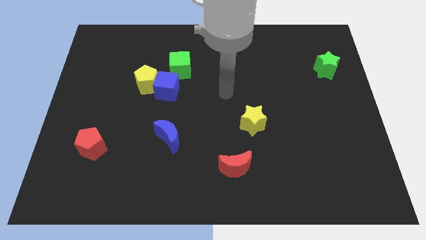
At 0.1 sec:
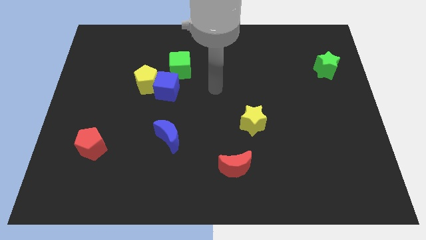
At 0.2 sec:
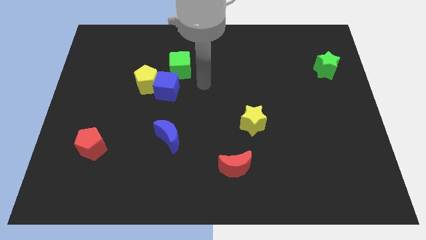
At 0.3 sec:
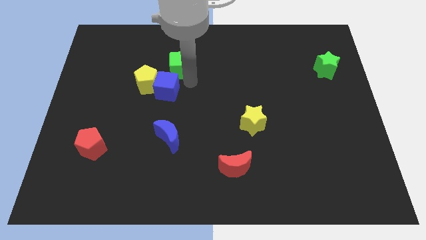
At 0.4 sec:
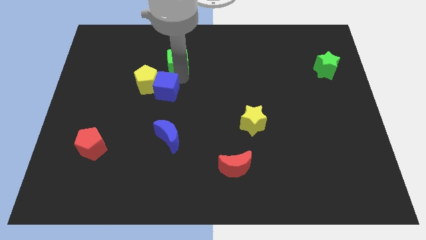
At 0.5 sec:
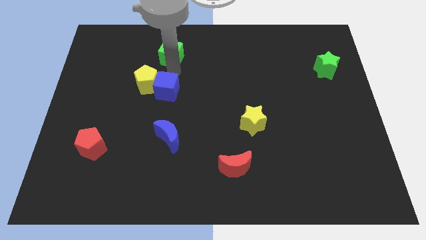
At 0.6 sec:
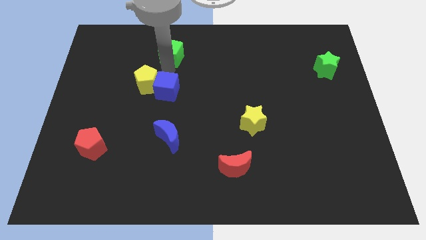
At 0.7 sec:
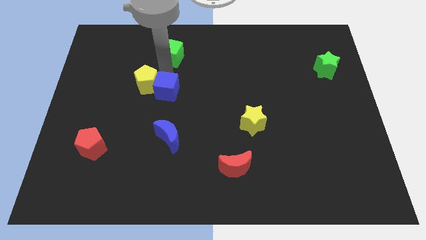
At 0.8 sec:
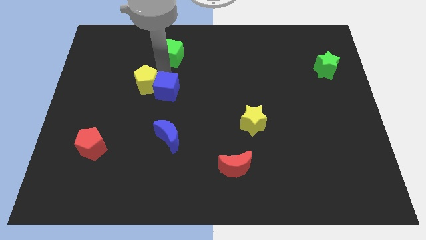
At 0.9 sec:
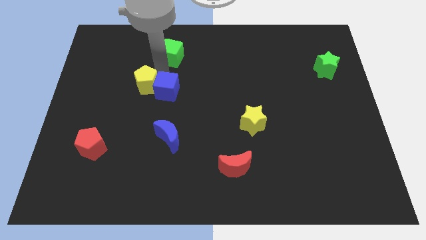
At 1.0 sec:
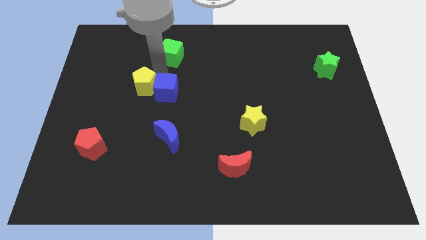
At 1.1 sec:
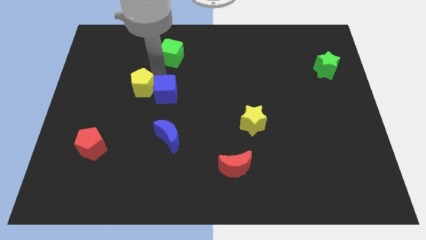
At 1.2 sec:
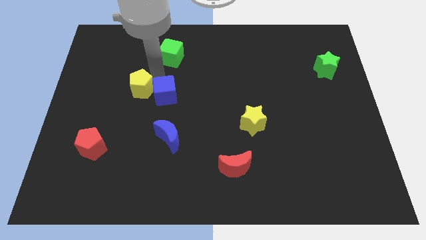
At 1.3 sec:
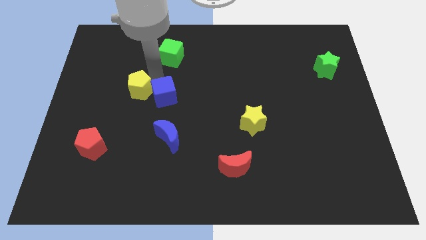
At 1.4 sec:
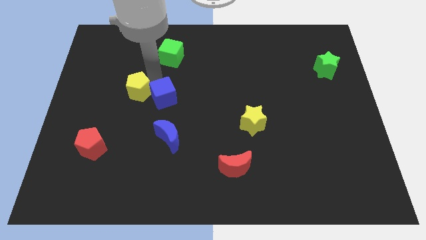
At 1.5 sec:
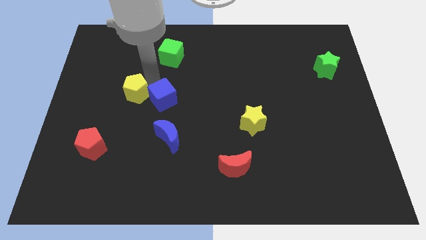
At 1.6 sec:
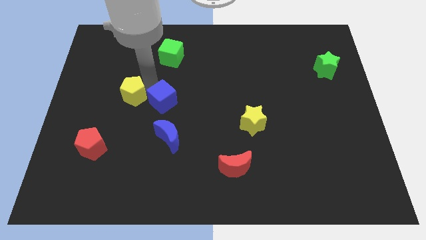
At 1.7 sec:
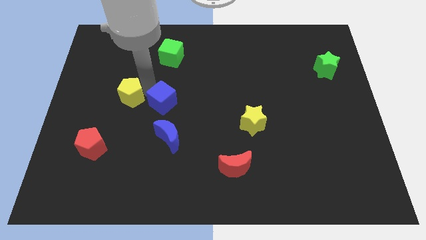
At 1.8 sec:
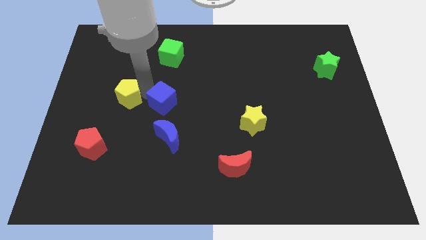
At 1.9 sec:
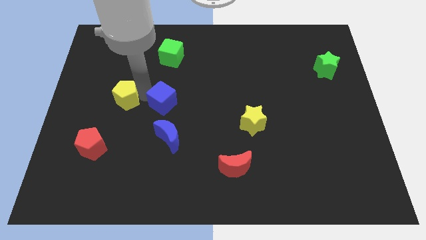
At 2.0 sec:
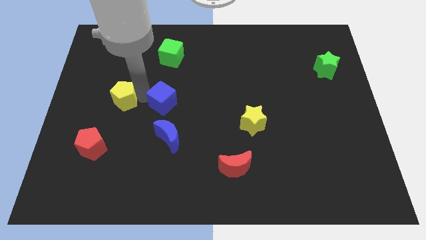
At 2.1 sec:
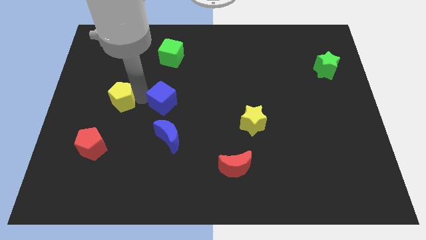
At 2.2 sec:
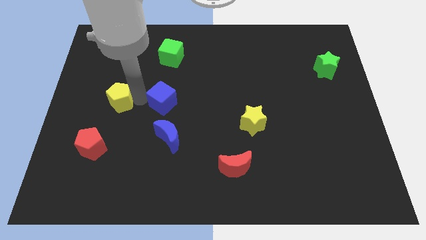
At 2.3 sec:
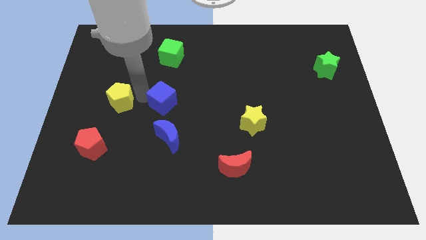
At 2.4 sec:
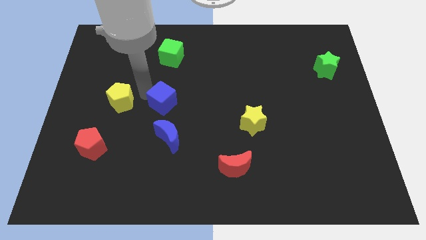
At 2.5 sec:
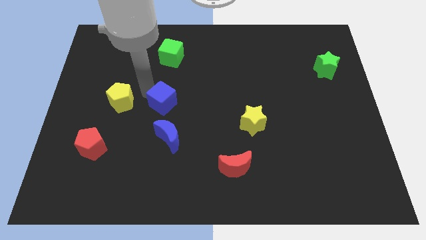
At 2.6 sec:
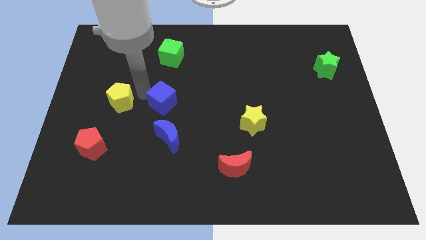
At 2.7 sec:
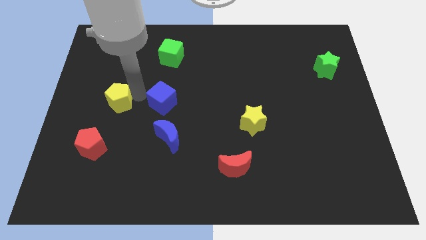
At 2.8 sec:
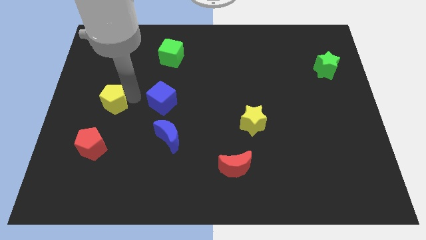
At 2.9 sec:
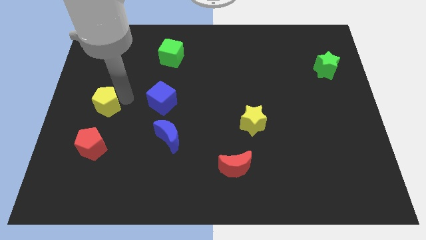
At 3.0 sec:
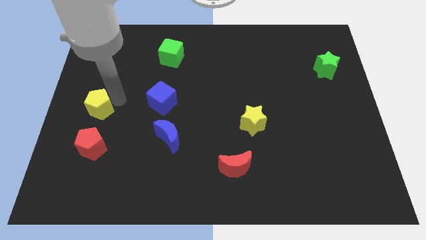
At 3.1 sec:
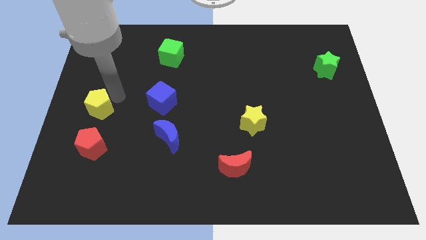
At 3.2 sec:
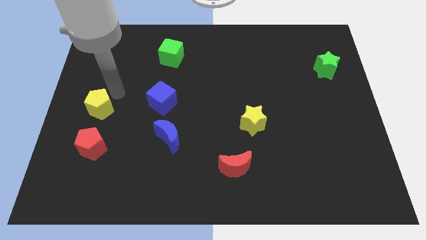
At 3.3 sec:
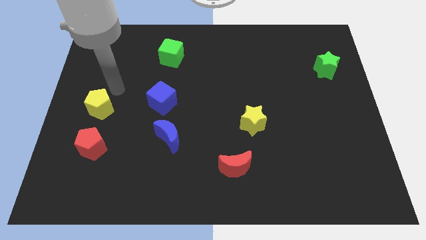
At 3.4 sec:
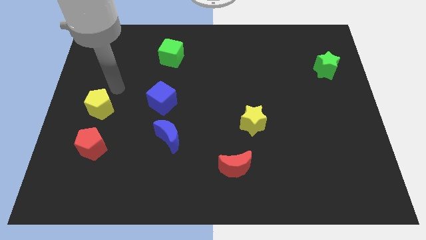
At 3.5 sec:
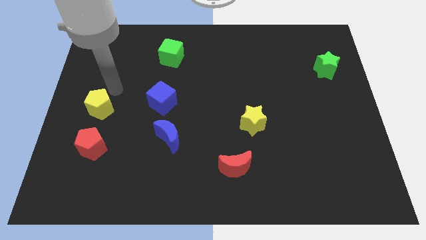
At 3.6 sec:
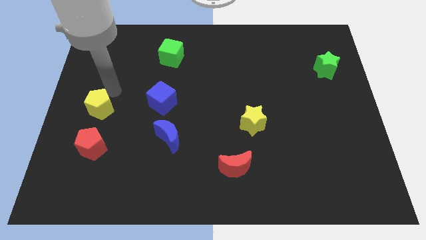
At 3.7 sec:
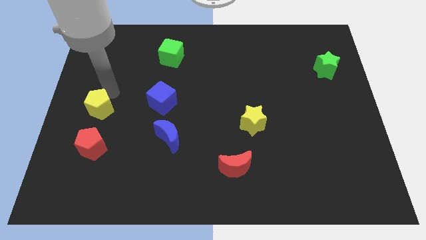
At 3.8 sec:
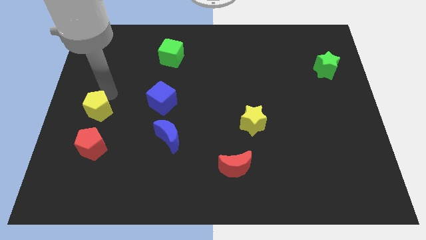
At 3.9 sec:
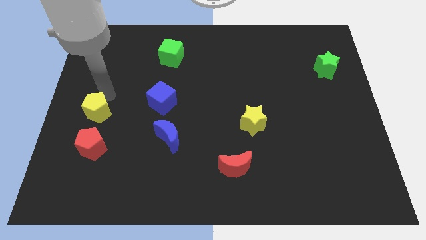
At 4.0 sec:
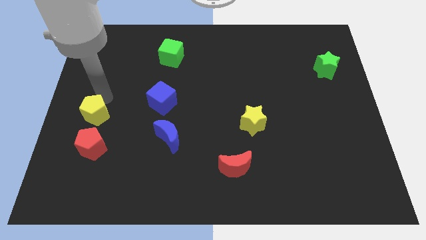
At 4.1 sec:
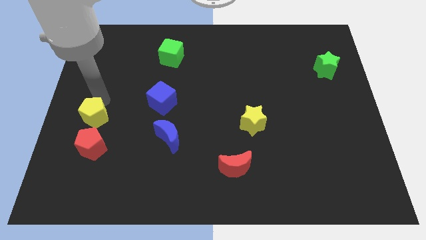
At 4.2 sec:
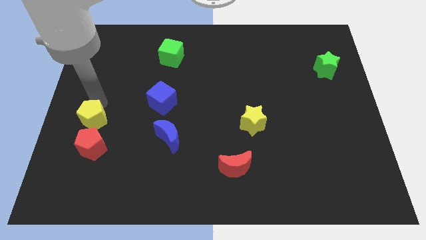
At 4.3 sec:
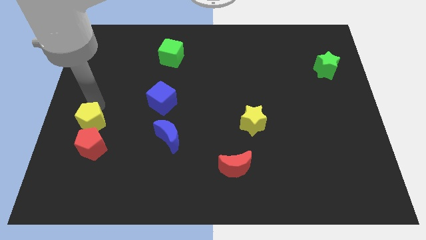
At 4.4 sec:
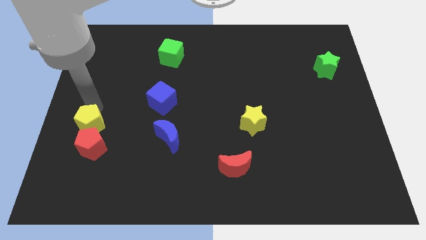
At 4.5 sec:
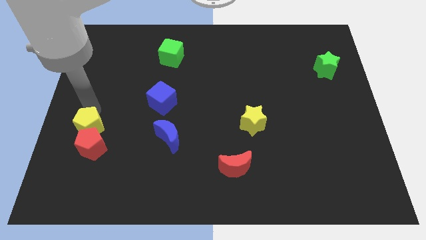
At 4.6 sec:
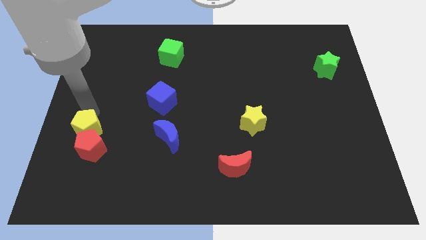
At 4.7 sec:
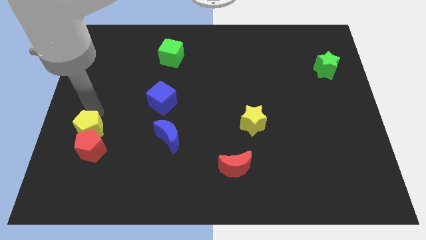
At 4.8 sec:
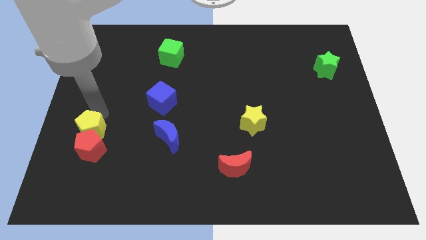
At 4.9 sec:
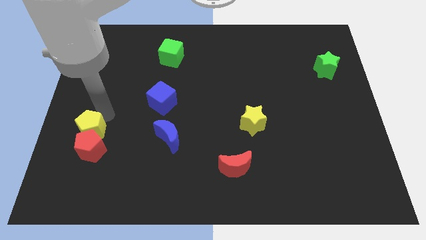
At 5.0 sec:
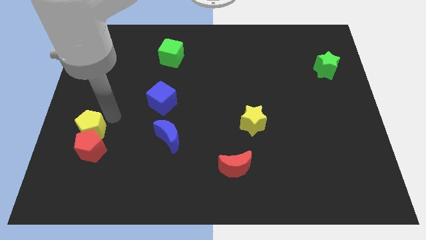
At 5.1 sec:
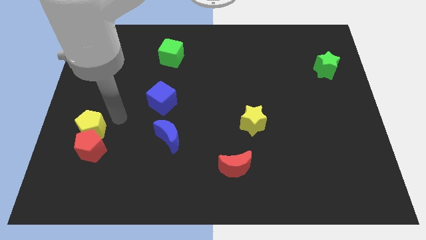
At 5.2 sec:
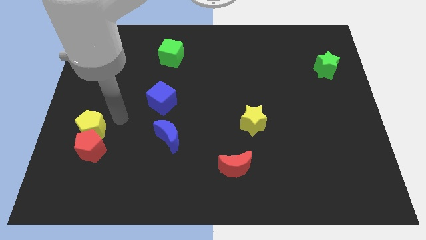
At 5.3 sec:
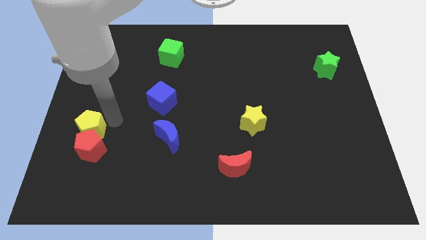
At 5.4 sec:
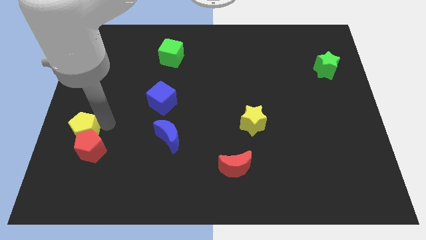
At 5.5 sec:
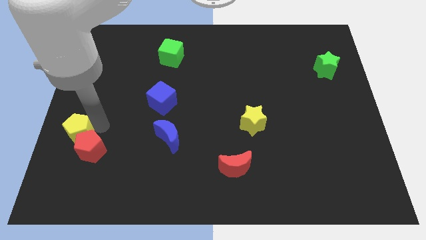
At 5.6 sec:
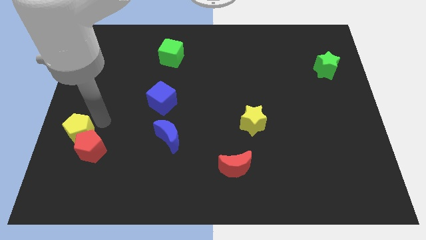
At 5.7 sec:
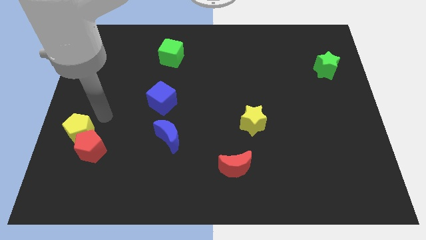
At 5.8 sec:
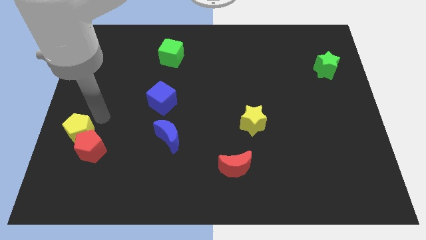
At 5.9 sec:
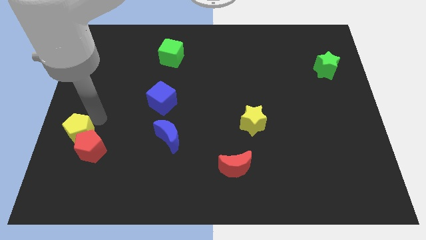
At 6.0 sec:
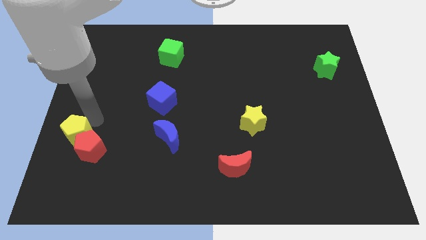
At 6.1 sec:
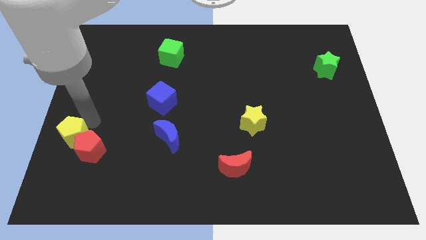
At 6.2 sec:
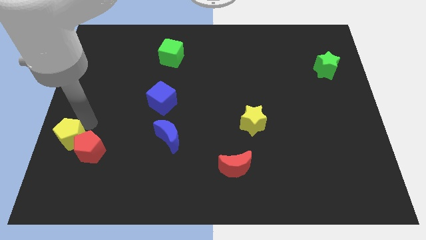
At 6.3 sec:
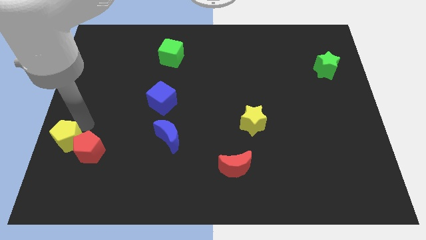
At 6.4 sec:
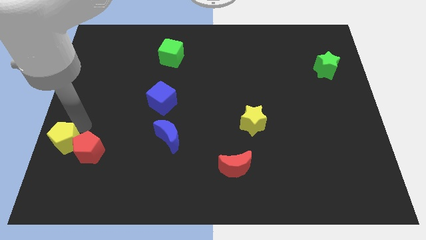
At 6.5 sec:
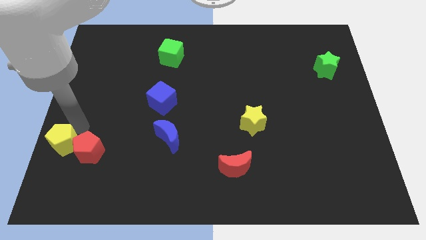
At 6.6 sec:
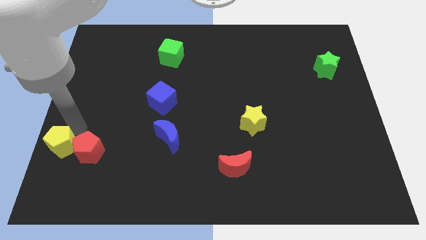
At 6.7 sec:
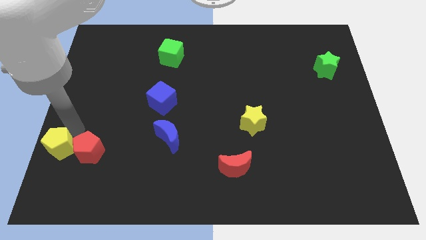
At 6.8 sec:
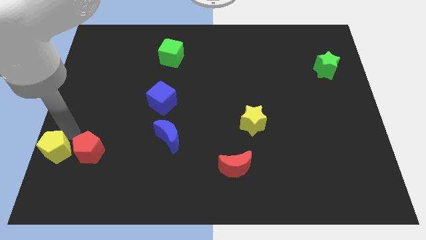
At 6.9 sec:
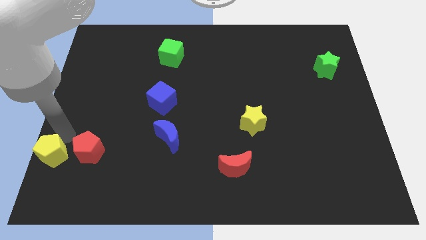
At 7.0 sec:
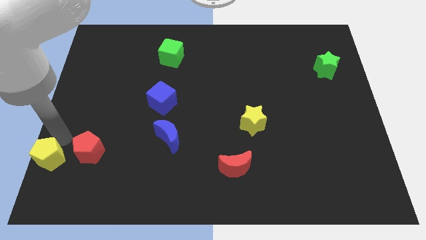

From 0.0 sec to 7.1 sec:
move the yellow pentagon to the bottom left corner
